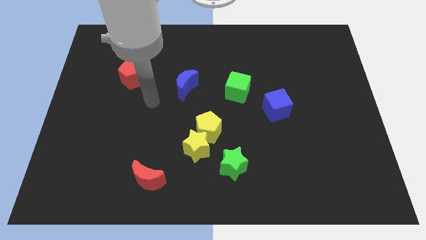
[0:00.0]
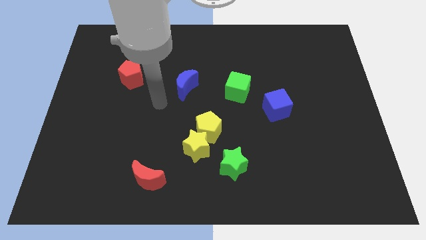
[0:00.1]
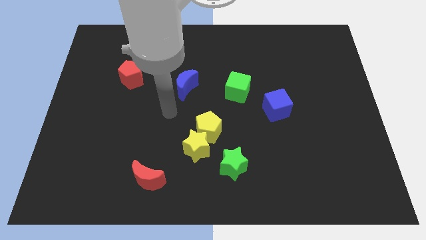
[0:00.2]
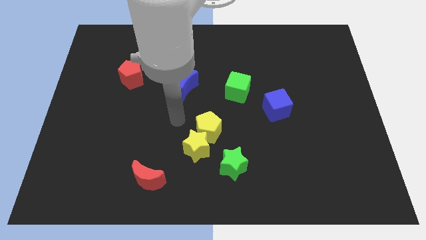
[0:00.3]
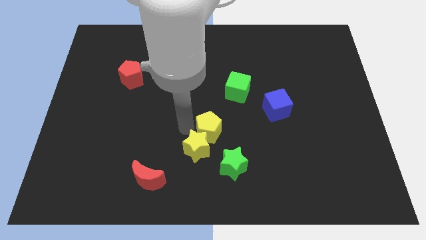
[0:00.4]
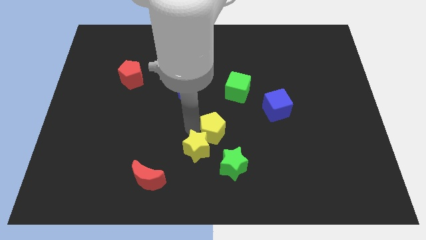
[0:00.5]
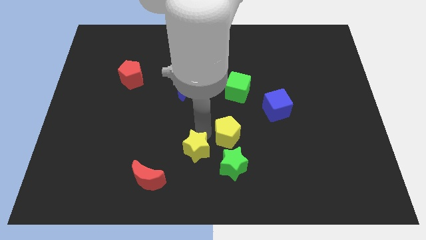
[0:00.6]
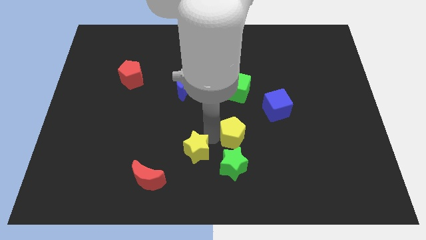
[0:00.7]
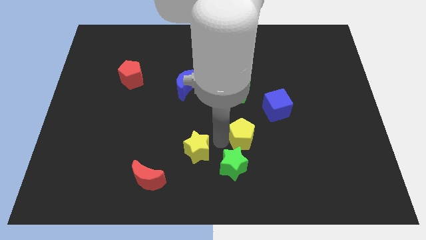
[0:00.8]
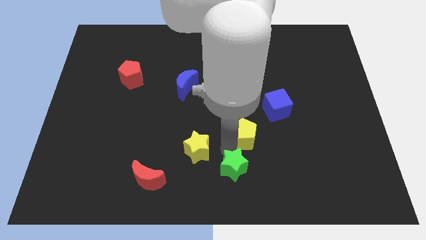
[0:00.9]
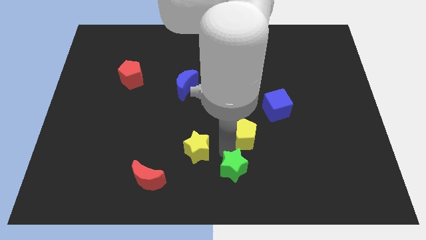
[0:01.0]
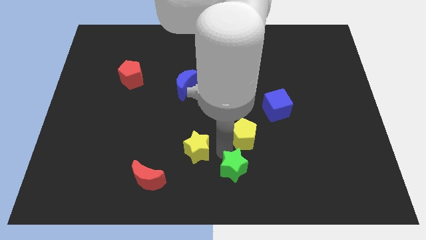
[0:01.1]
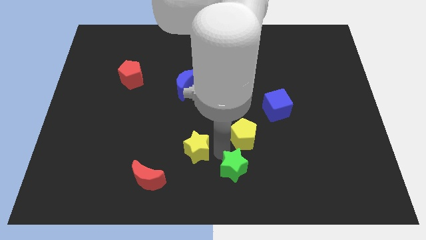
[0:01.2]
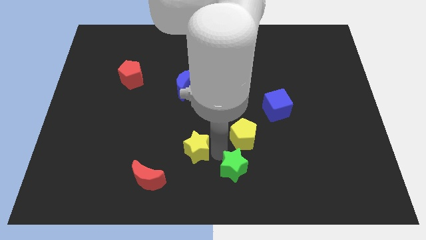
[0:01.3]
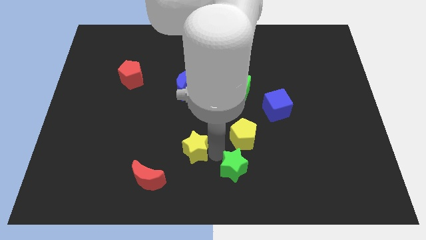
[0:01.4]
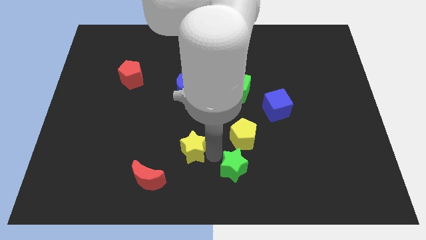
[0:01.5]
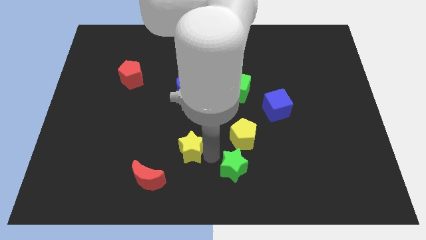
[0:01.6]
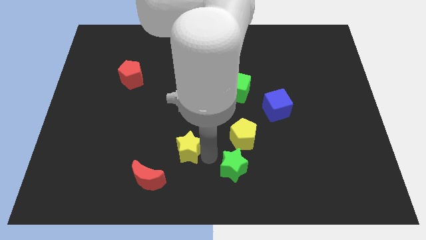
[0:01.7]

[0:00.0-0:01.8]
pull the yellow star apart from the yellow pentagon and green star

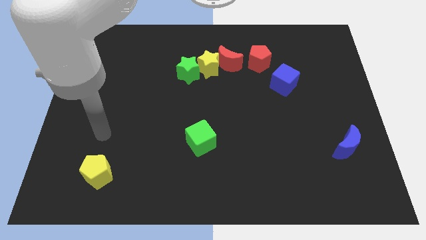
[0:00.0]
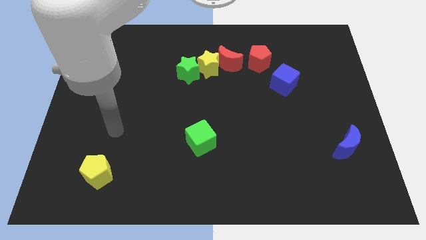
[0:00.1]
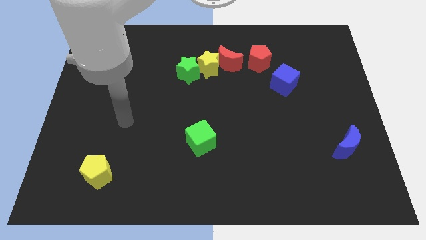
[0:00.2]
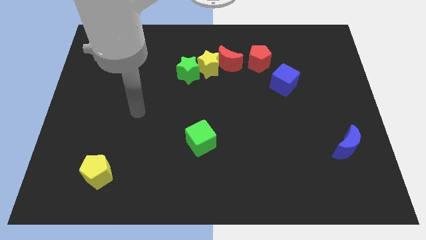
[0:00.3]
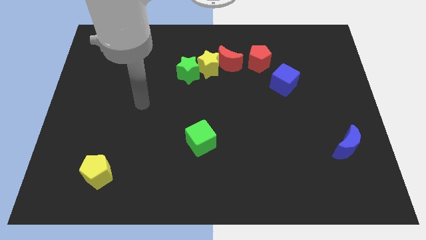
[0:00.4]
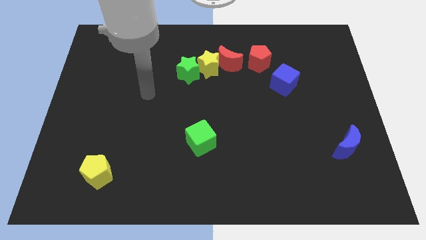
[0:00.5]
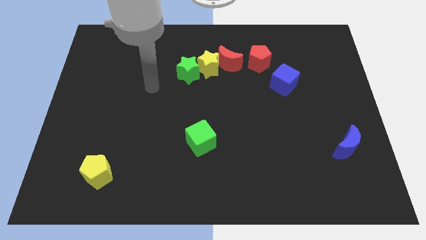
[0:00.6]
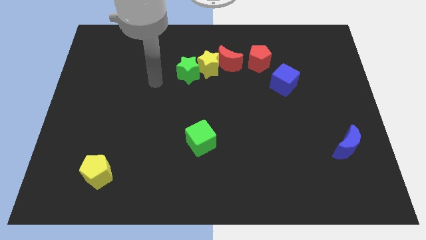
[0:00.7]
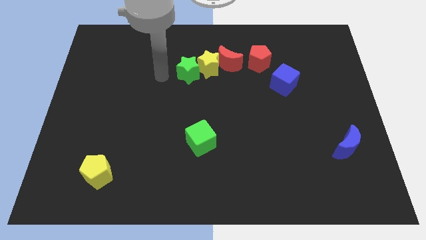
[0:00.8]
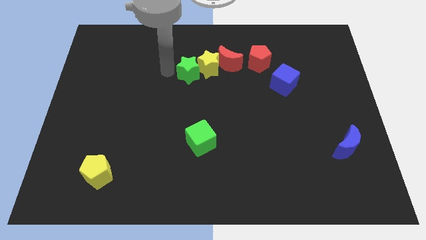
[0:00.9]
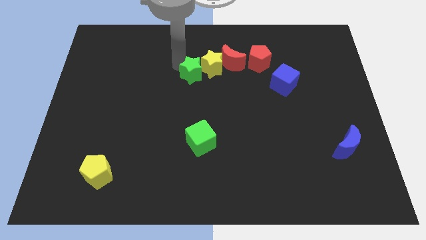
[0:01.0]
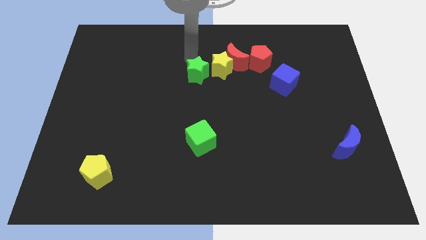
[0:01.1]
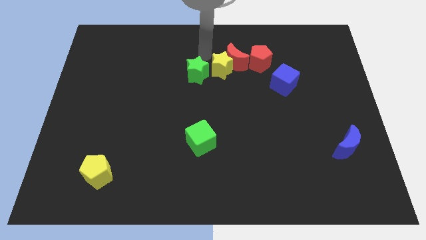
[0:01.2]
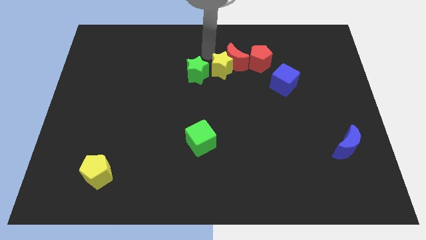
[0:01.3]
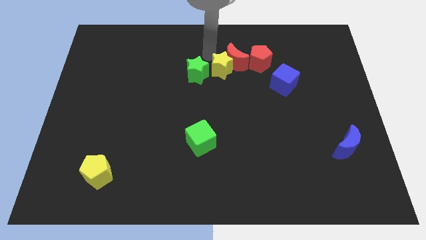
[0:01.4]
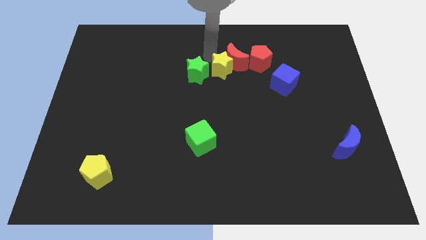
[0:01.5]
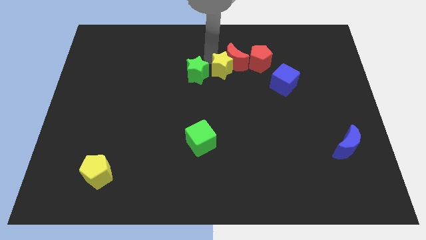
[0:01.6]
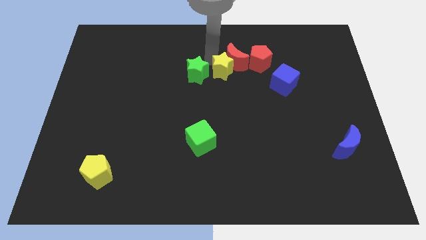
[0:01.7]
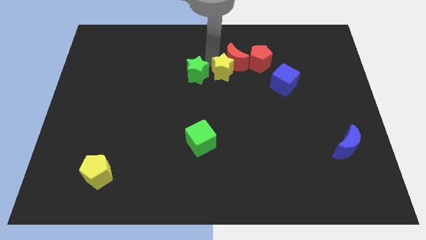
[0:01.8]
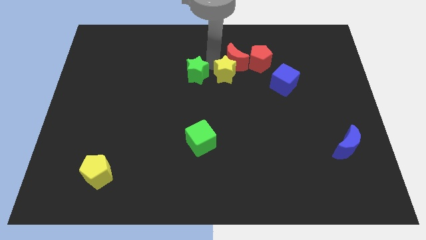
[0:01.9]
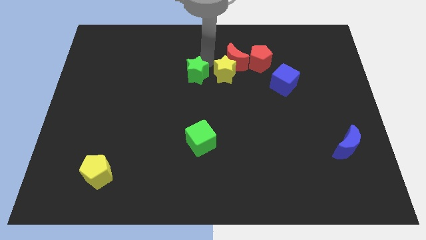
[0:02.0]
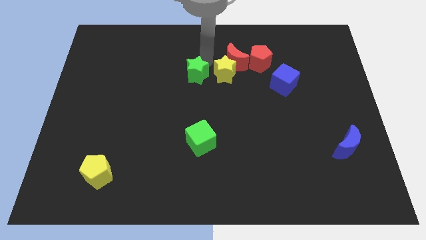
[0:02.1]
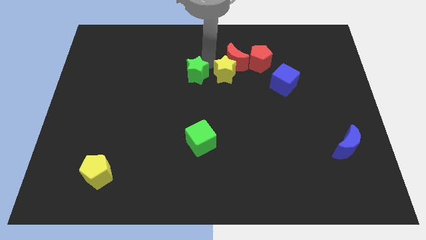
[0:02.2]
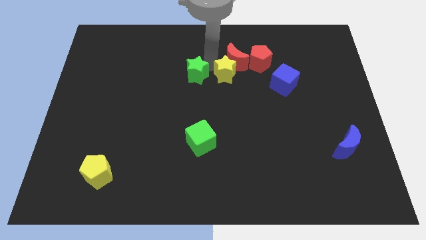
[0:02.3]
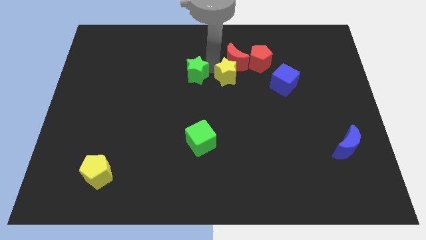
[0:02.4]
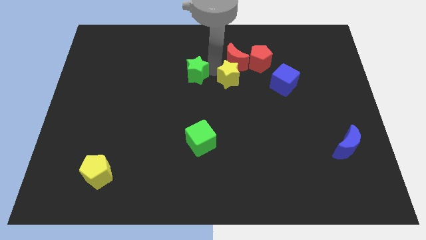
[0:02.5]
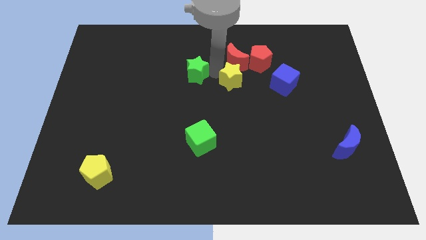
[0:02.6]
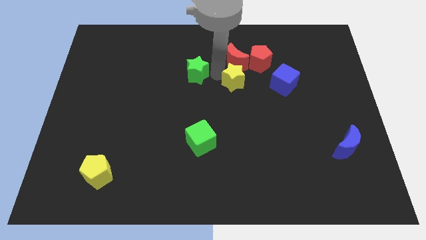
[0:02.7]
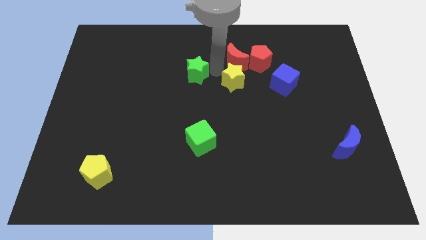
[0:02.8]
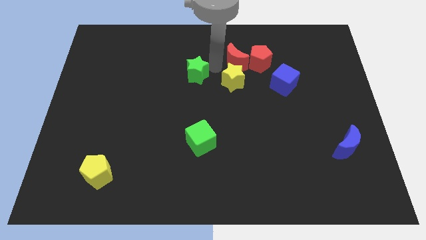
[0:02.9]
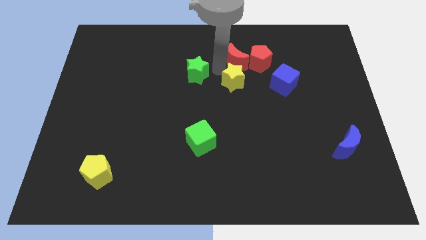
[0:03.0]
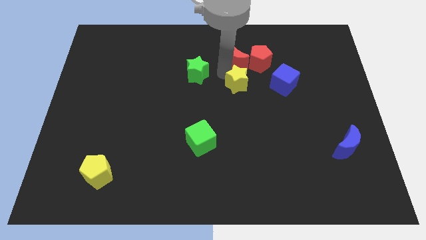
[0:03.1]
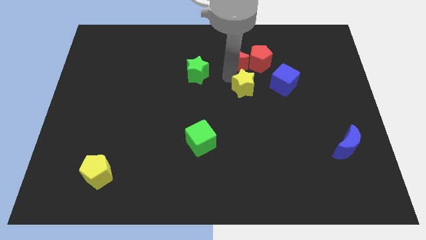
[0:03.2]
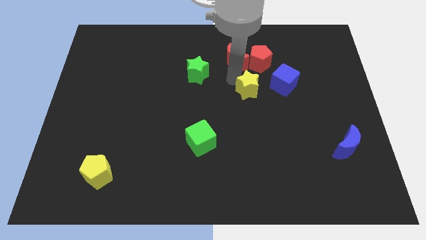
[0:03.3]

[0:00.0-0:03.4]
move the yellow star away from the red moon and green star

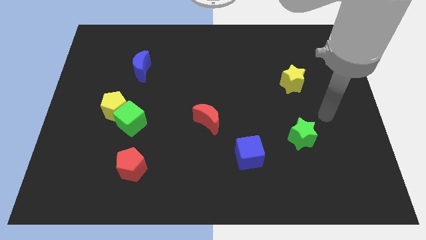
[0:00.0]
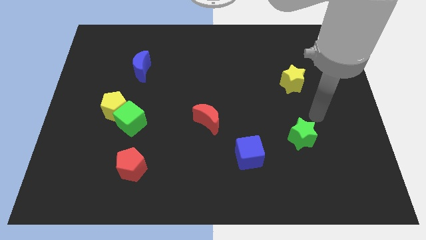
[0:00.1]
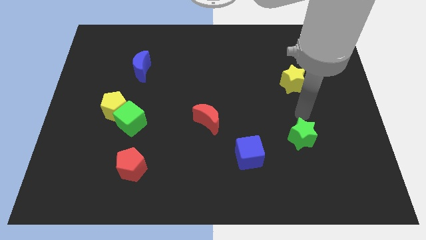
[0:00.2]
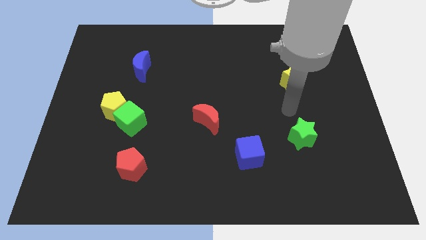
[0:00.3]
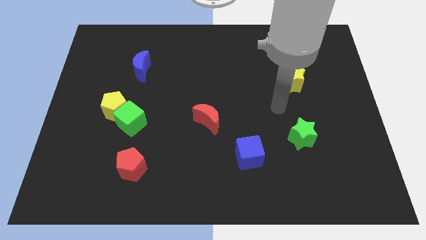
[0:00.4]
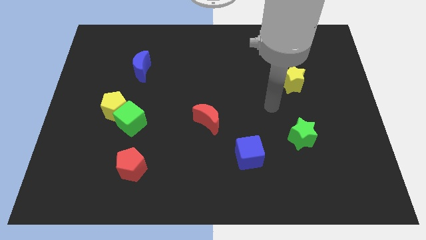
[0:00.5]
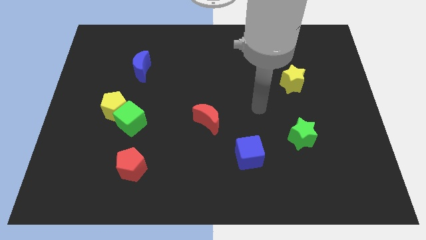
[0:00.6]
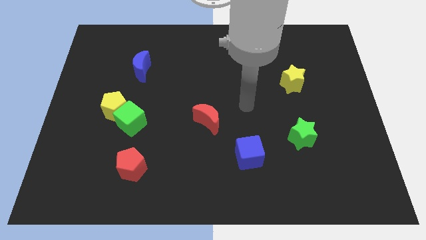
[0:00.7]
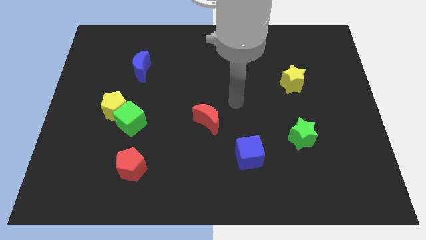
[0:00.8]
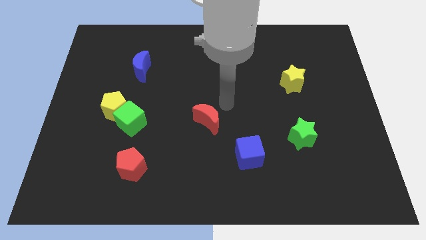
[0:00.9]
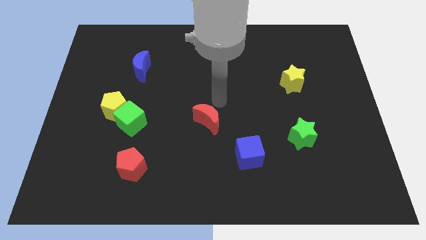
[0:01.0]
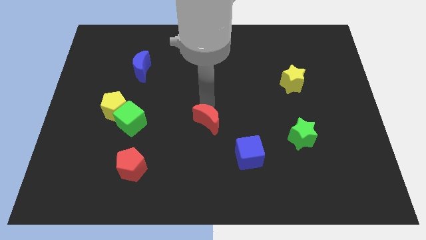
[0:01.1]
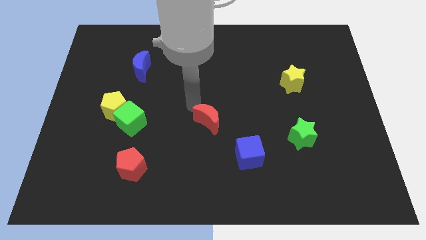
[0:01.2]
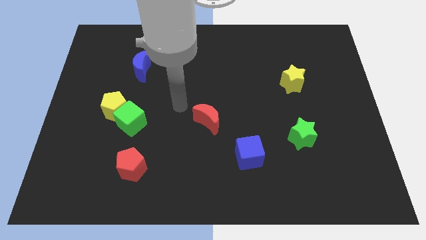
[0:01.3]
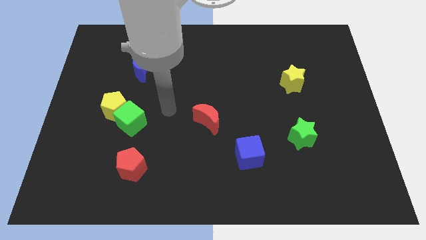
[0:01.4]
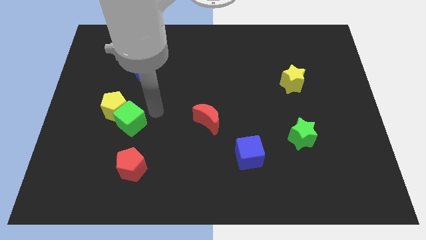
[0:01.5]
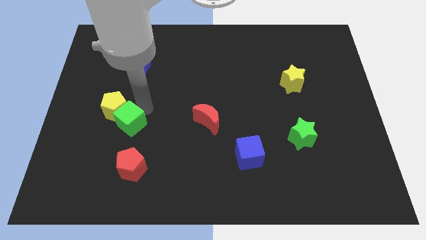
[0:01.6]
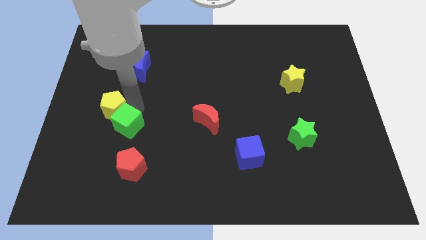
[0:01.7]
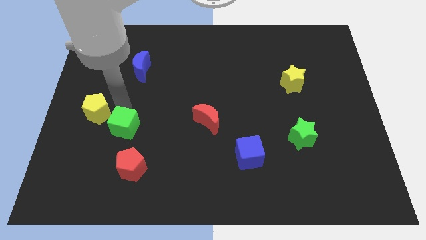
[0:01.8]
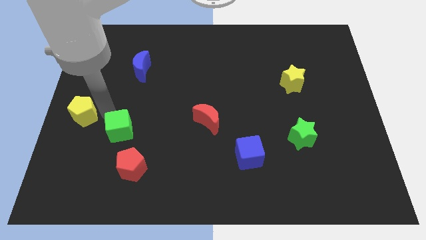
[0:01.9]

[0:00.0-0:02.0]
move the green cube away from the yellow pentagon

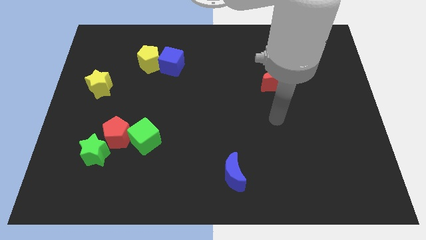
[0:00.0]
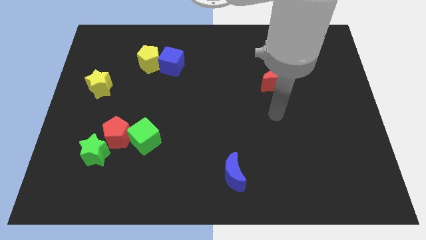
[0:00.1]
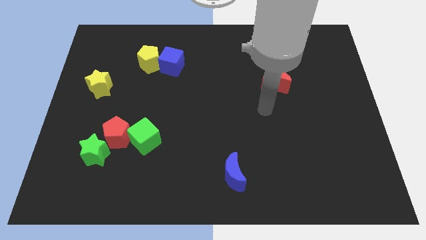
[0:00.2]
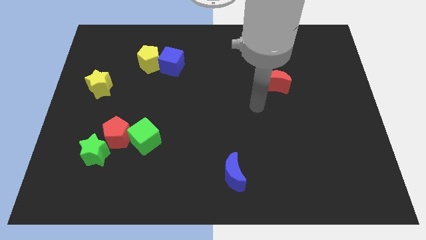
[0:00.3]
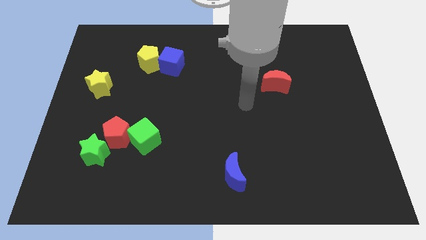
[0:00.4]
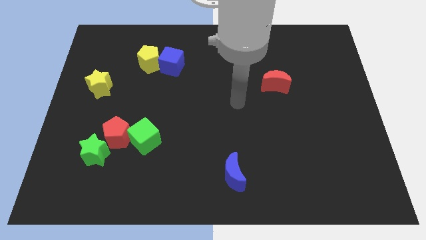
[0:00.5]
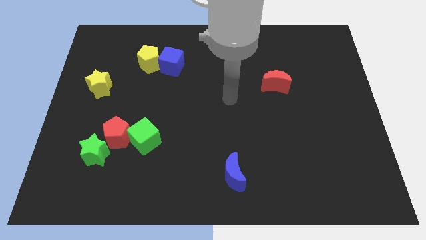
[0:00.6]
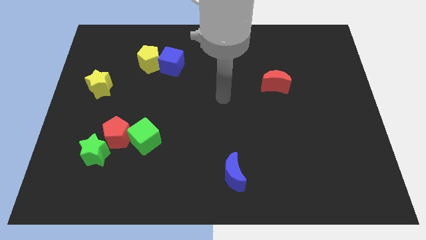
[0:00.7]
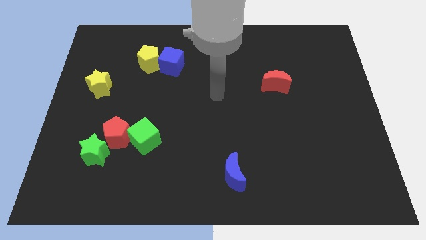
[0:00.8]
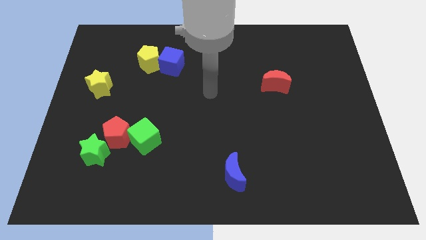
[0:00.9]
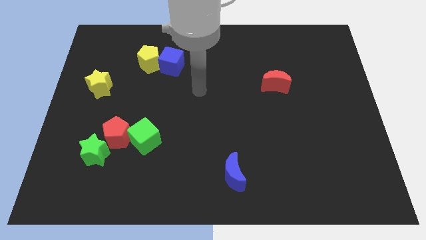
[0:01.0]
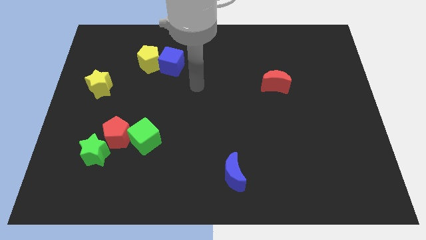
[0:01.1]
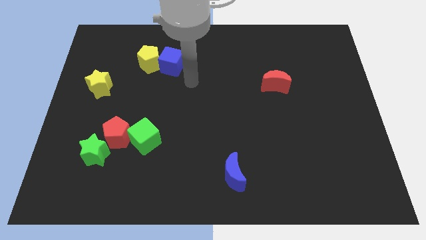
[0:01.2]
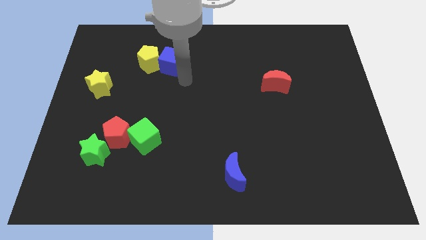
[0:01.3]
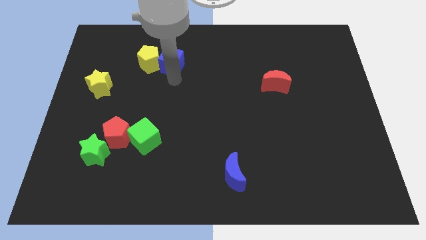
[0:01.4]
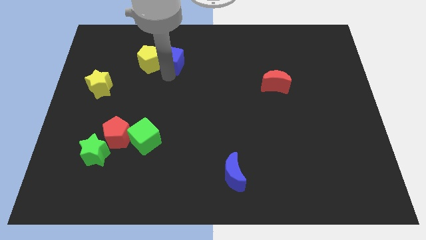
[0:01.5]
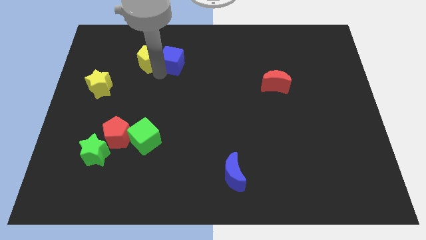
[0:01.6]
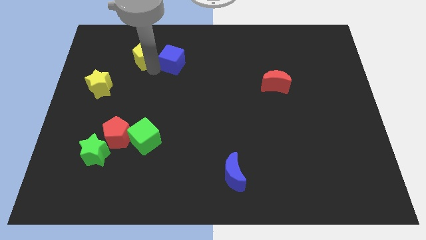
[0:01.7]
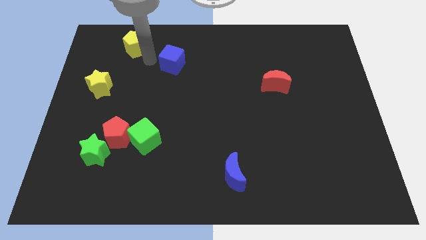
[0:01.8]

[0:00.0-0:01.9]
pull the blue cube apart from the yellow pentagon

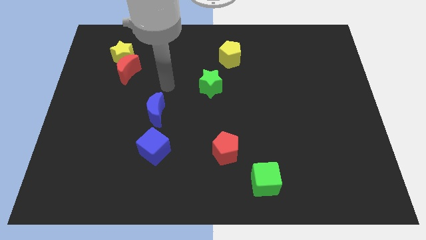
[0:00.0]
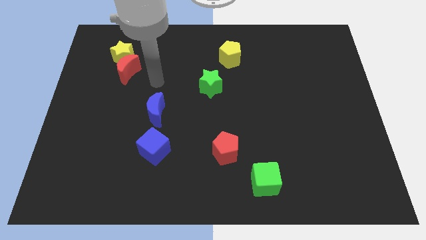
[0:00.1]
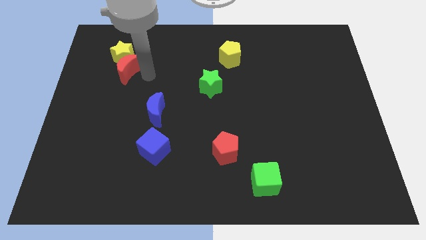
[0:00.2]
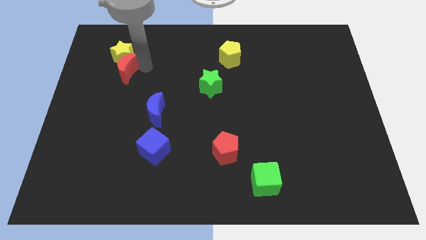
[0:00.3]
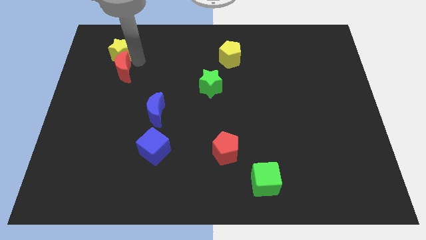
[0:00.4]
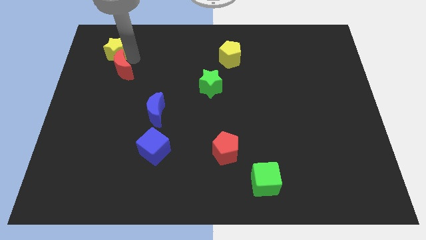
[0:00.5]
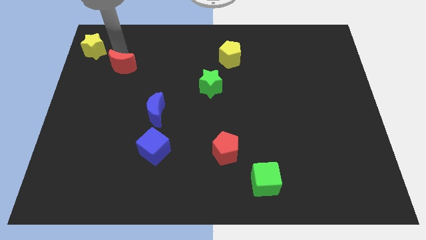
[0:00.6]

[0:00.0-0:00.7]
separate the red moon from the yellow star
